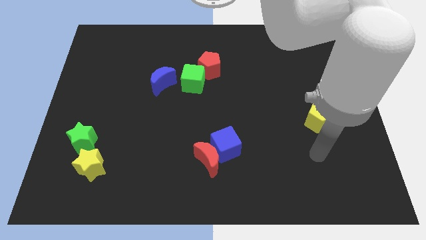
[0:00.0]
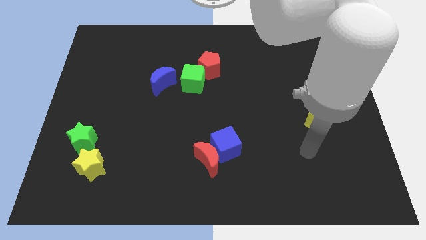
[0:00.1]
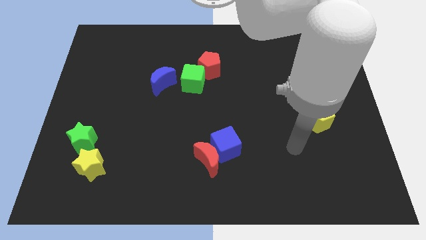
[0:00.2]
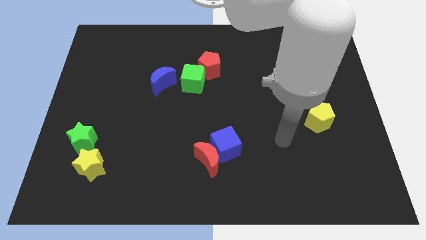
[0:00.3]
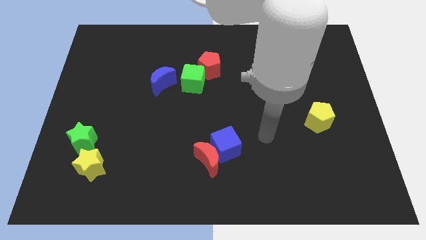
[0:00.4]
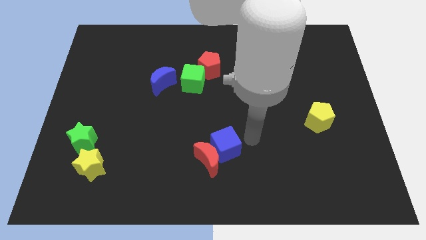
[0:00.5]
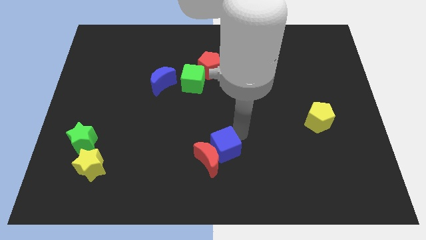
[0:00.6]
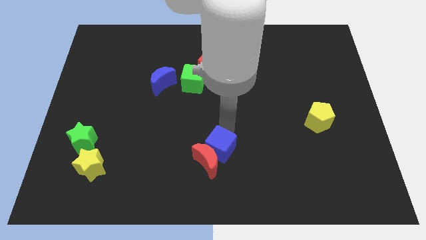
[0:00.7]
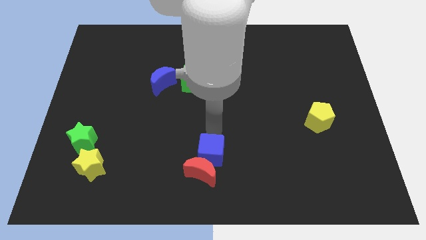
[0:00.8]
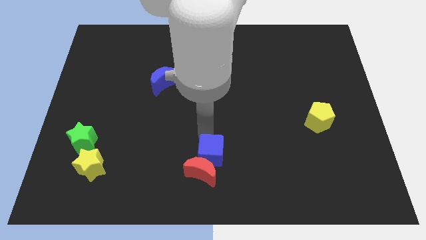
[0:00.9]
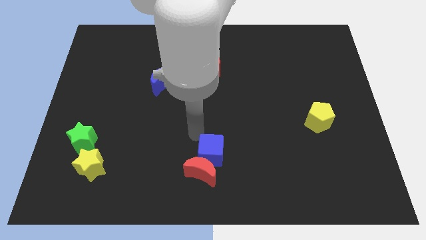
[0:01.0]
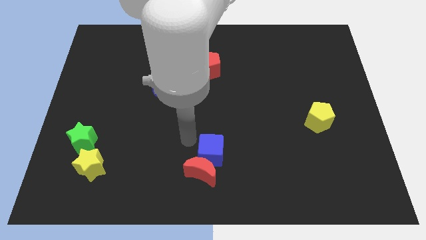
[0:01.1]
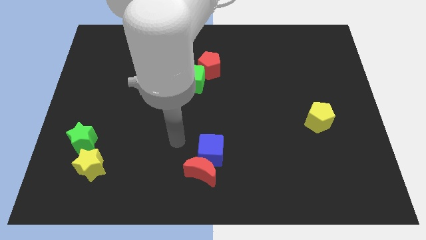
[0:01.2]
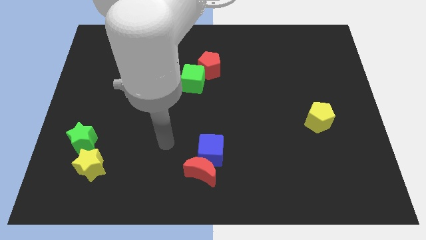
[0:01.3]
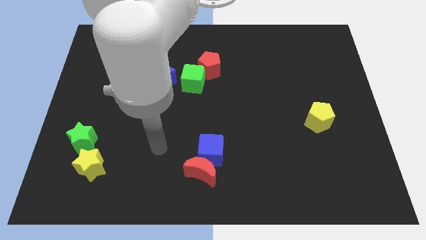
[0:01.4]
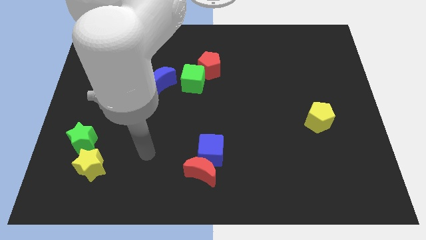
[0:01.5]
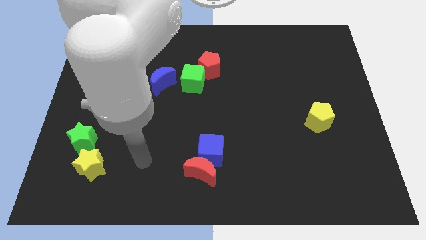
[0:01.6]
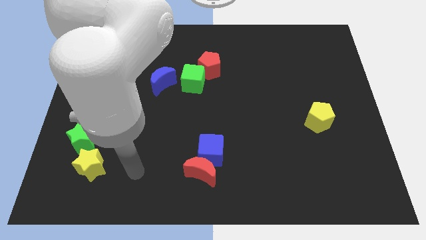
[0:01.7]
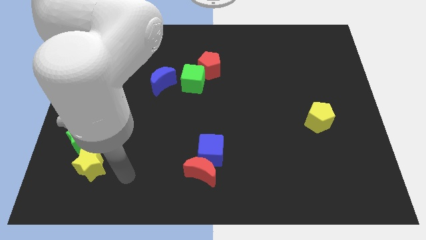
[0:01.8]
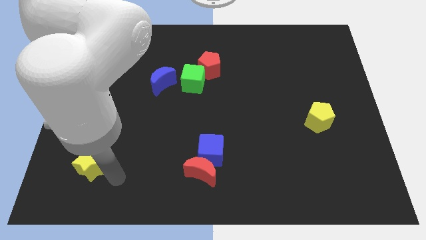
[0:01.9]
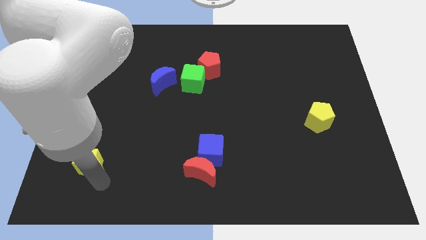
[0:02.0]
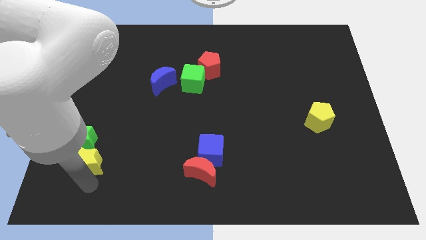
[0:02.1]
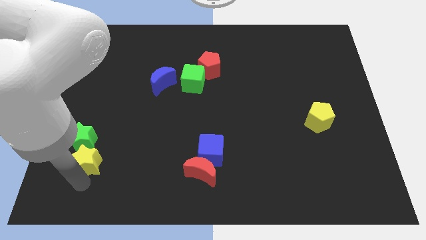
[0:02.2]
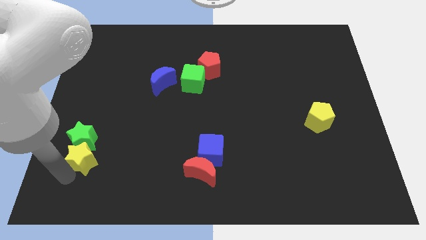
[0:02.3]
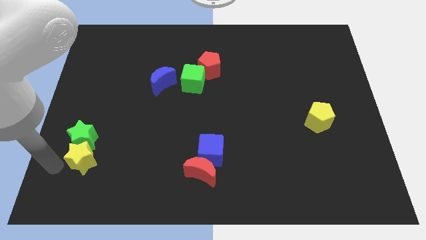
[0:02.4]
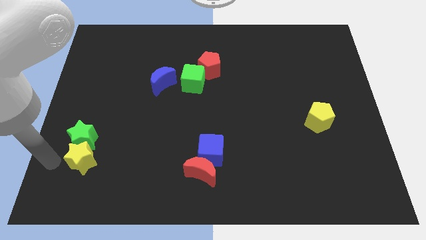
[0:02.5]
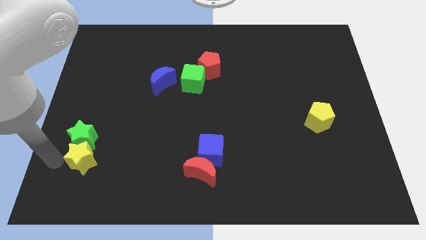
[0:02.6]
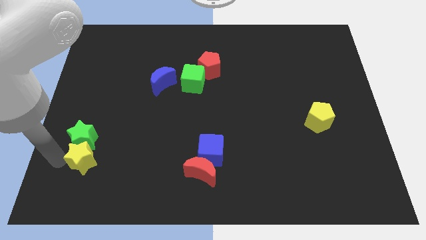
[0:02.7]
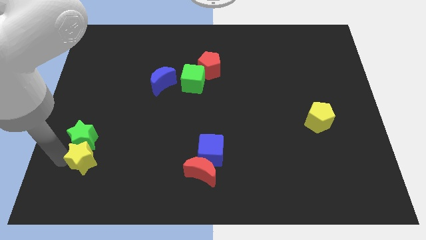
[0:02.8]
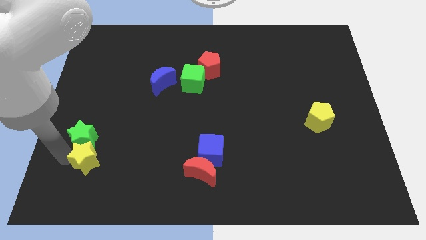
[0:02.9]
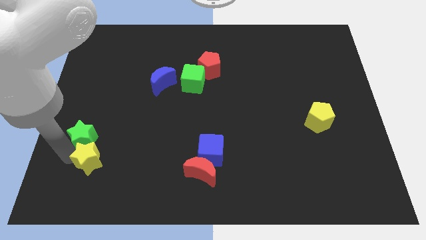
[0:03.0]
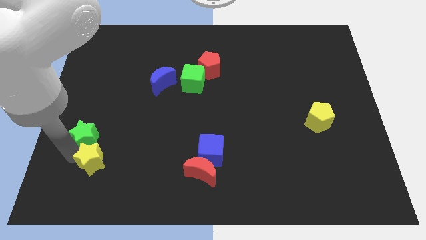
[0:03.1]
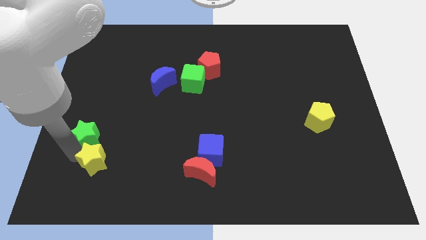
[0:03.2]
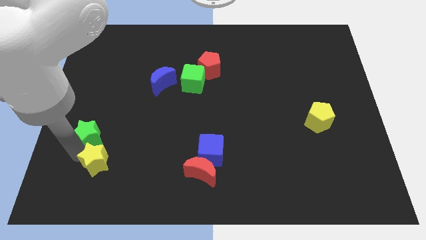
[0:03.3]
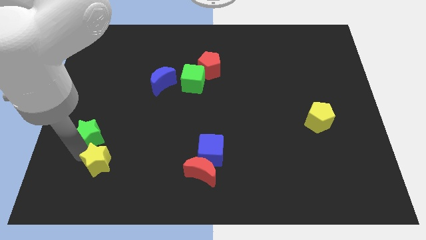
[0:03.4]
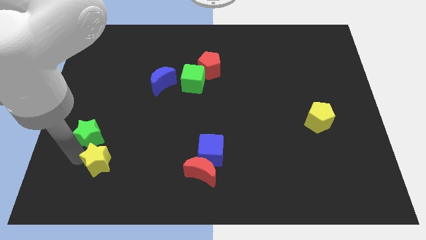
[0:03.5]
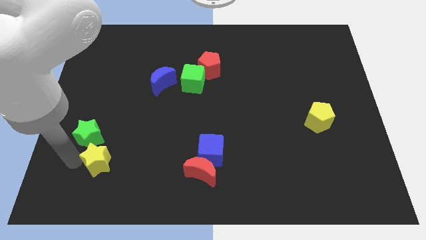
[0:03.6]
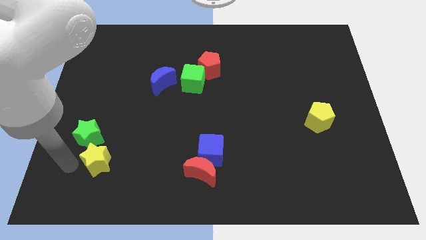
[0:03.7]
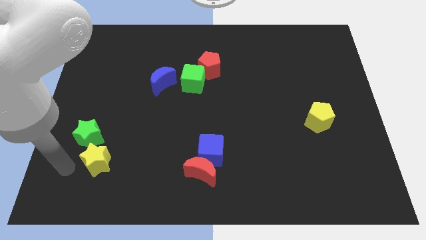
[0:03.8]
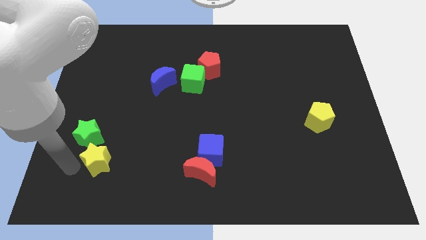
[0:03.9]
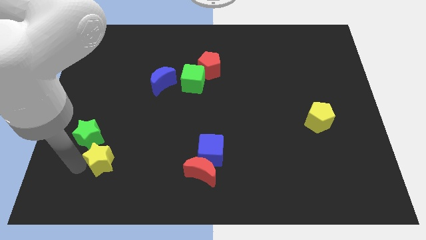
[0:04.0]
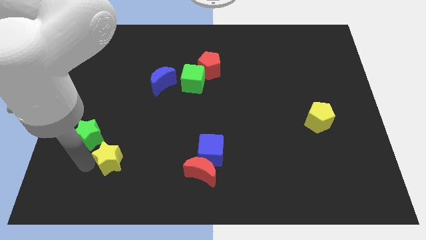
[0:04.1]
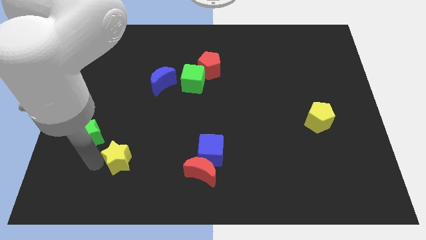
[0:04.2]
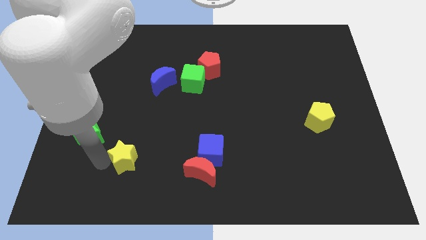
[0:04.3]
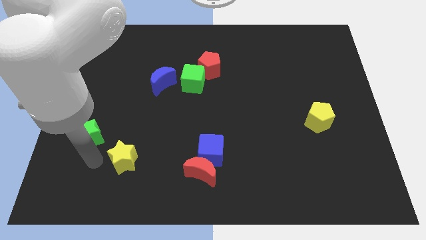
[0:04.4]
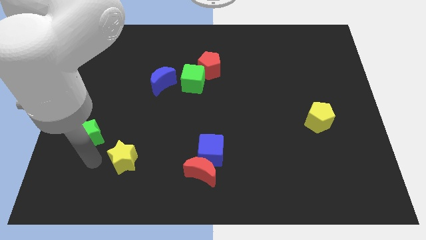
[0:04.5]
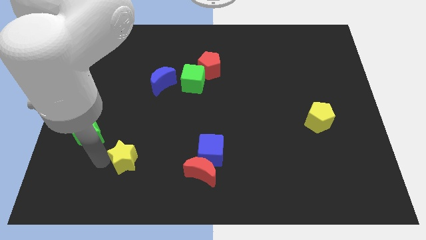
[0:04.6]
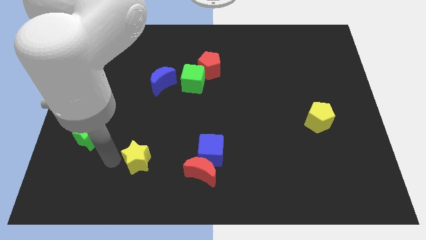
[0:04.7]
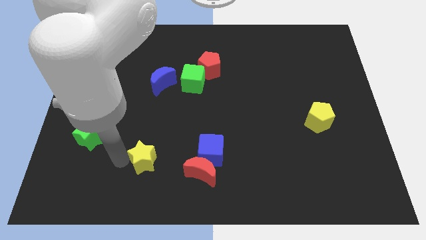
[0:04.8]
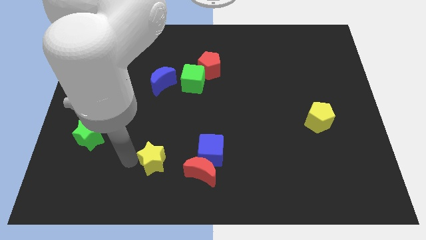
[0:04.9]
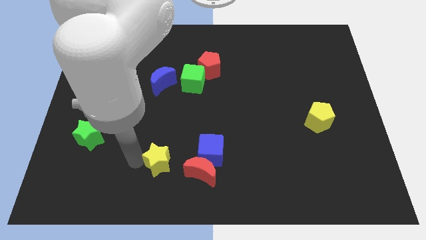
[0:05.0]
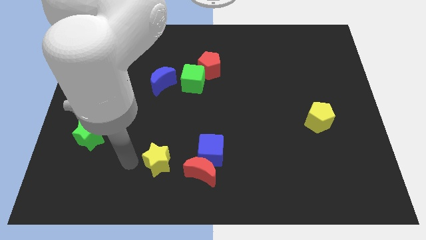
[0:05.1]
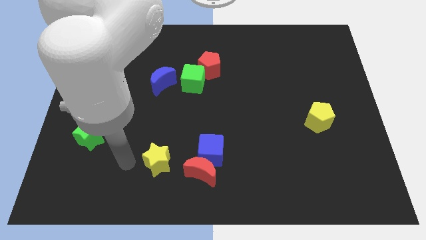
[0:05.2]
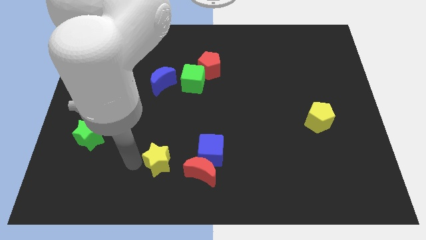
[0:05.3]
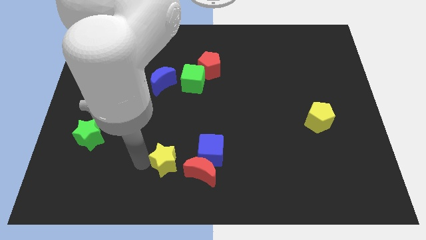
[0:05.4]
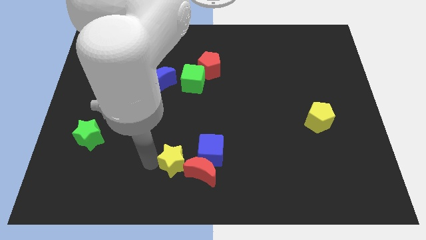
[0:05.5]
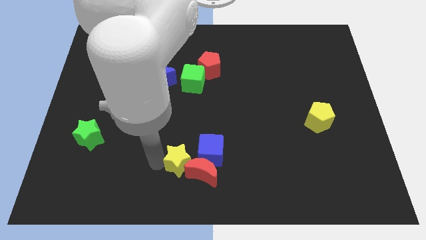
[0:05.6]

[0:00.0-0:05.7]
push the yellow star close to the red moon
